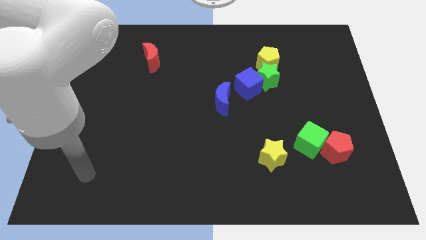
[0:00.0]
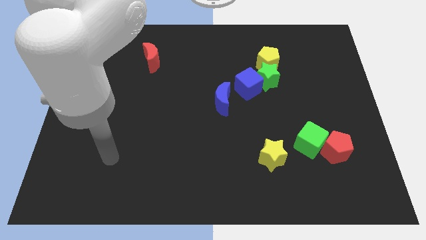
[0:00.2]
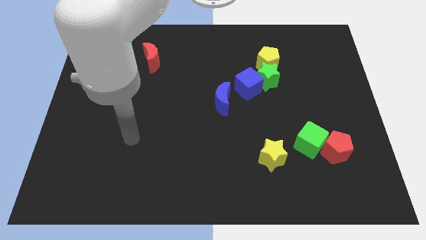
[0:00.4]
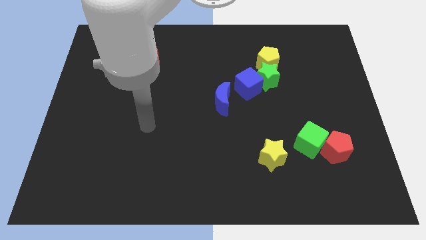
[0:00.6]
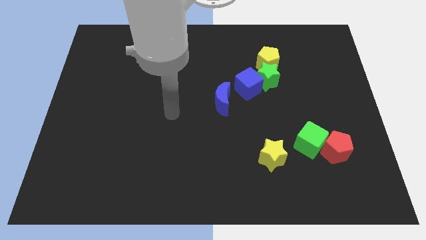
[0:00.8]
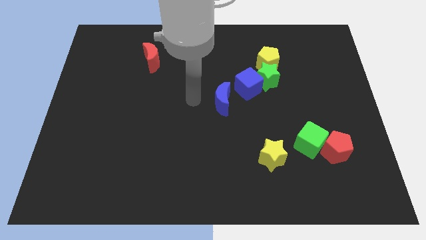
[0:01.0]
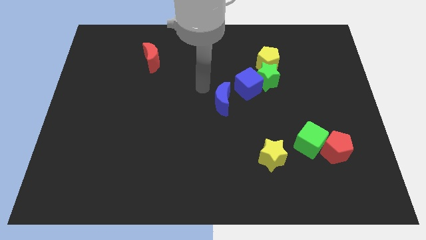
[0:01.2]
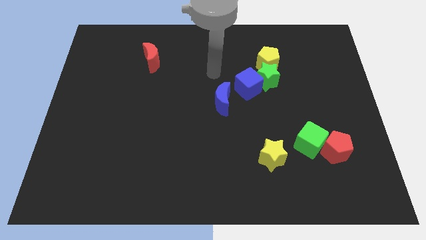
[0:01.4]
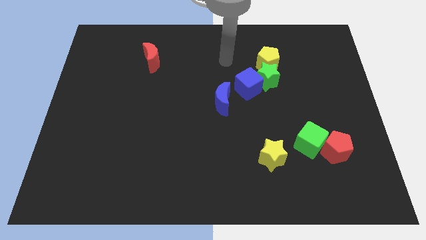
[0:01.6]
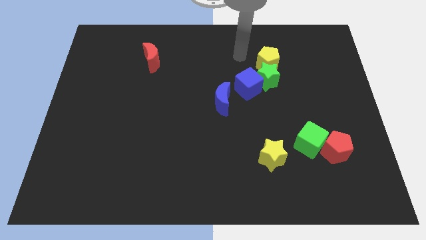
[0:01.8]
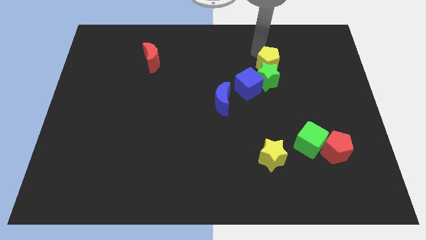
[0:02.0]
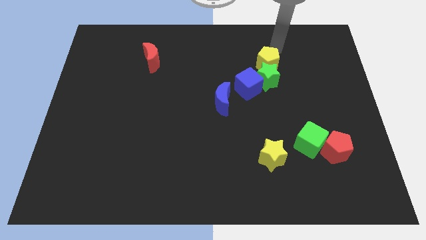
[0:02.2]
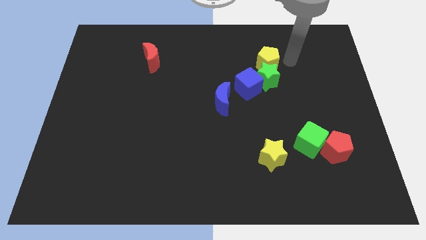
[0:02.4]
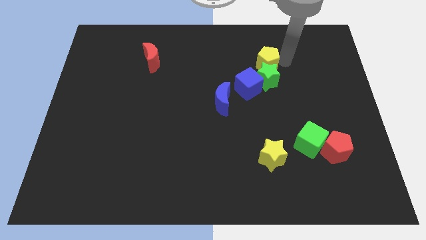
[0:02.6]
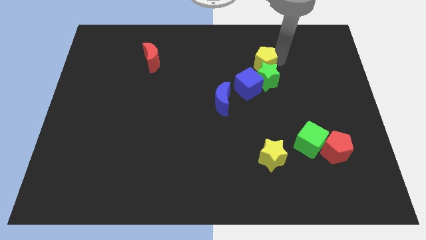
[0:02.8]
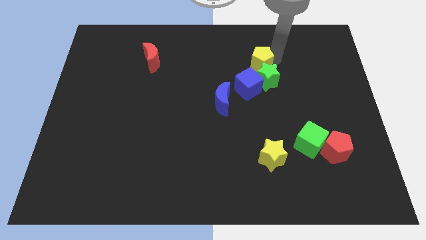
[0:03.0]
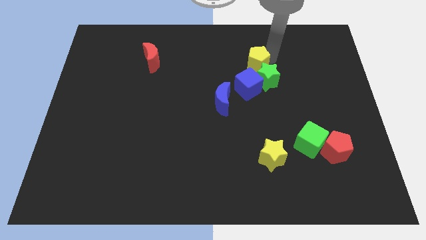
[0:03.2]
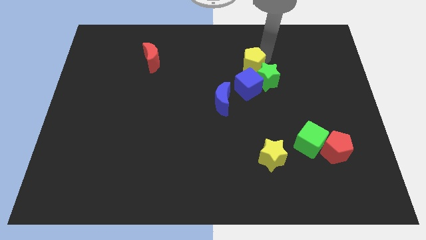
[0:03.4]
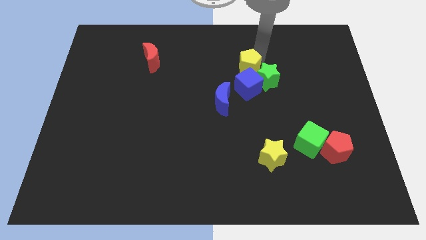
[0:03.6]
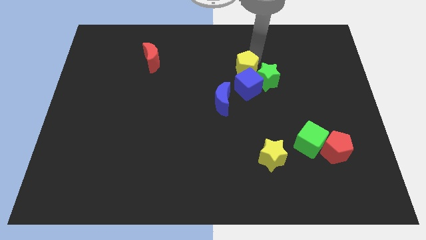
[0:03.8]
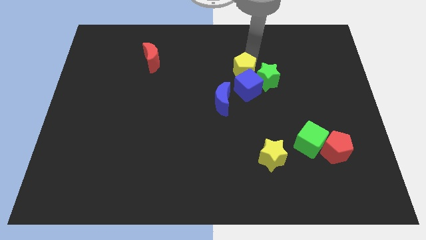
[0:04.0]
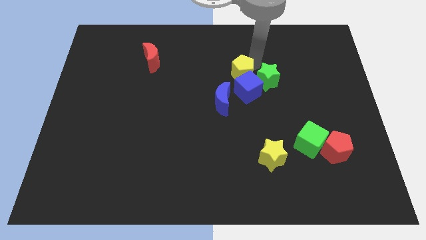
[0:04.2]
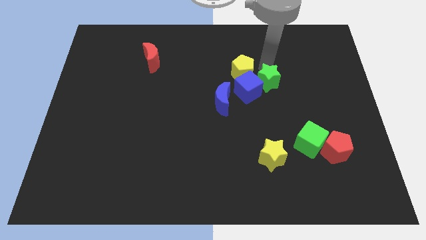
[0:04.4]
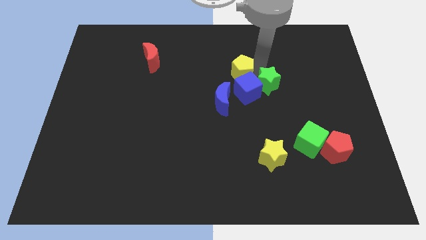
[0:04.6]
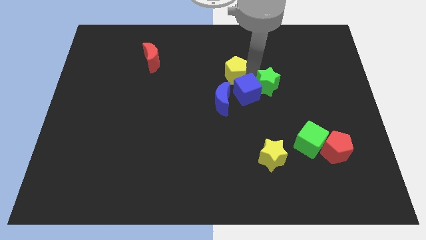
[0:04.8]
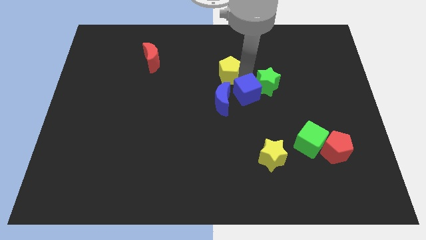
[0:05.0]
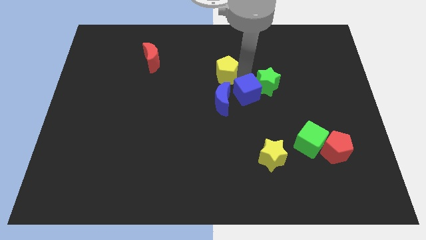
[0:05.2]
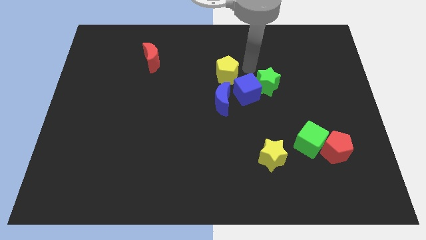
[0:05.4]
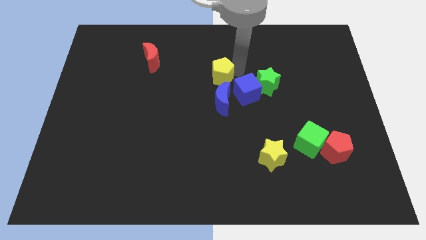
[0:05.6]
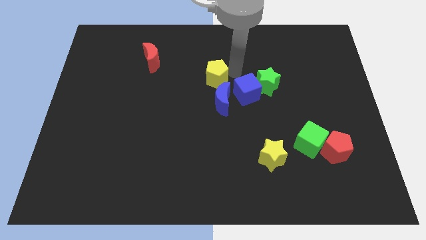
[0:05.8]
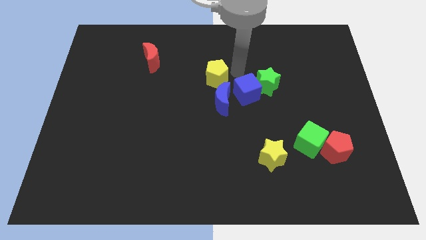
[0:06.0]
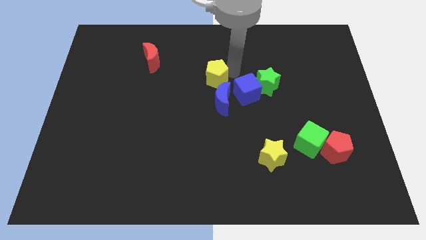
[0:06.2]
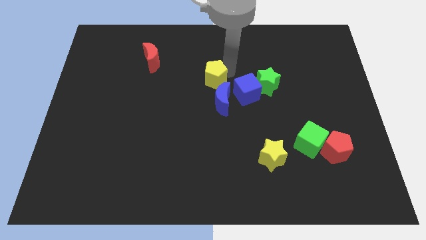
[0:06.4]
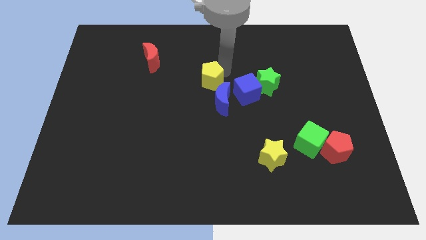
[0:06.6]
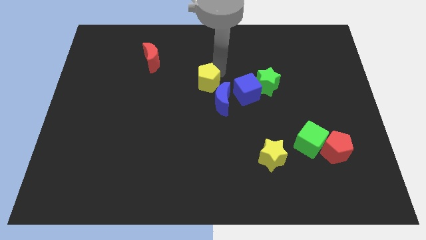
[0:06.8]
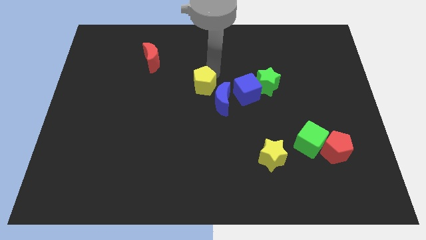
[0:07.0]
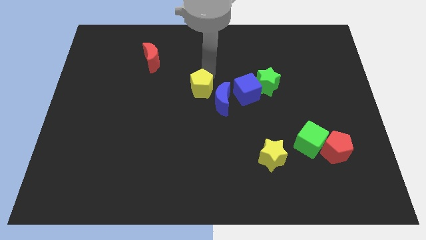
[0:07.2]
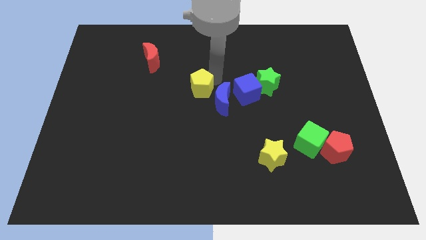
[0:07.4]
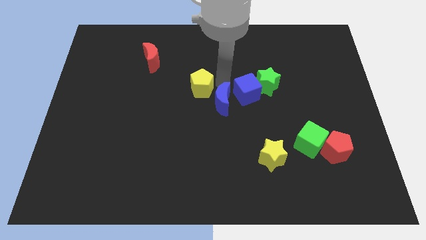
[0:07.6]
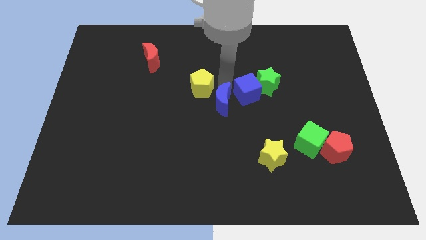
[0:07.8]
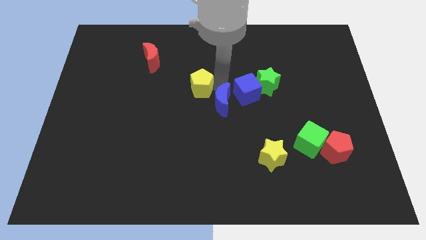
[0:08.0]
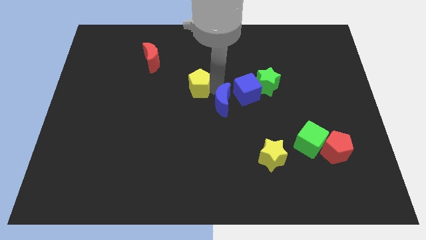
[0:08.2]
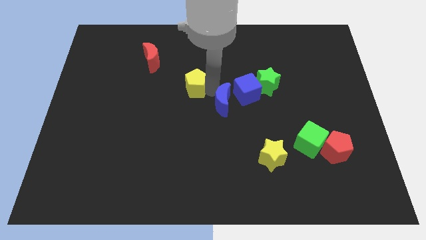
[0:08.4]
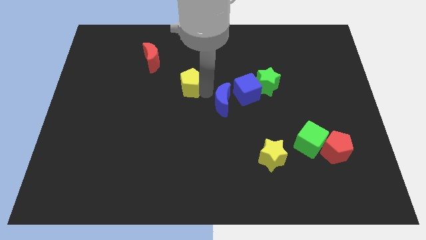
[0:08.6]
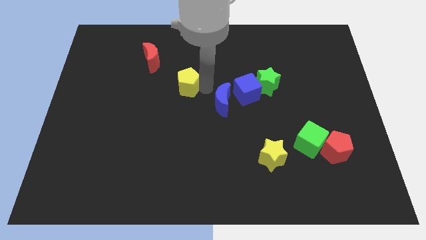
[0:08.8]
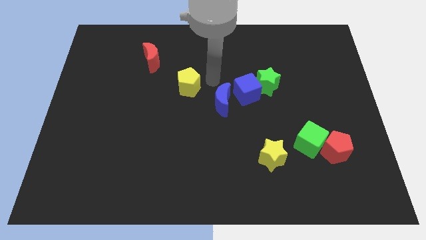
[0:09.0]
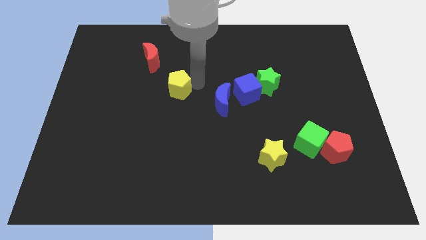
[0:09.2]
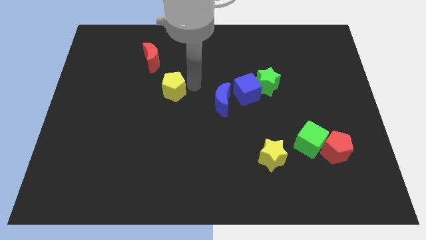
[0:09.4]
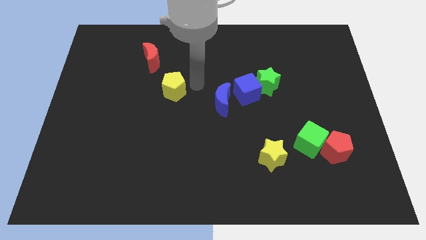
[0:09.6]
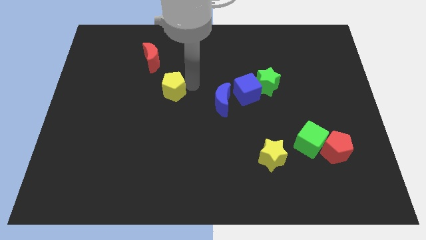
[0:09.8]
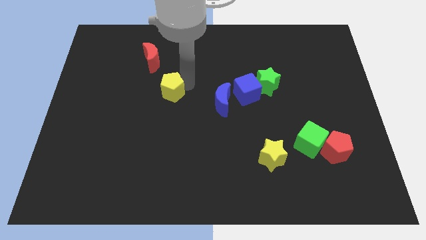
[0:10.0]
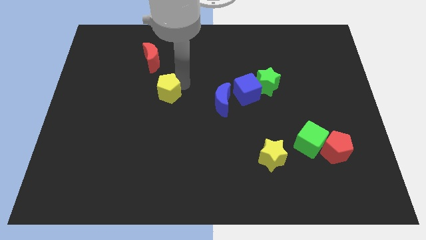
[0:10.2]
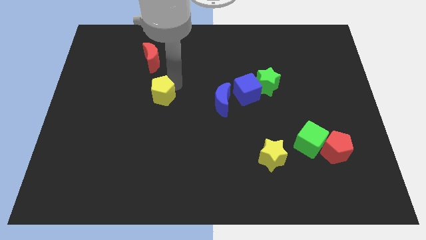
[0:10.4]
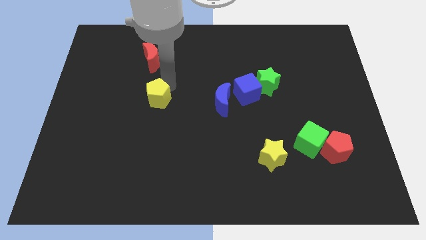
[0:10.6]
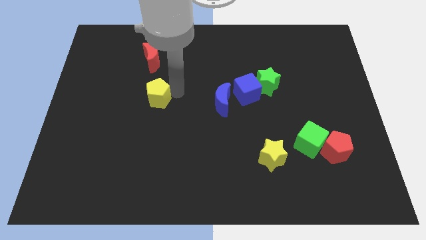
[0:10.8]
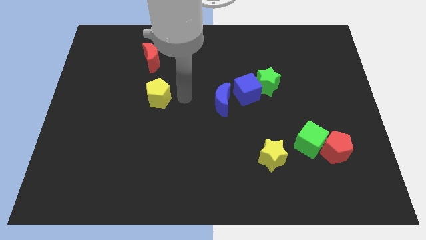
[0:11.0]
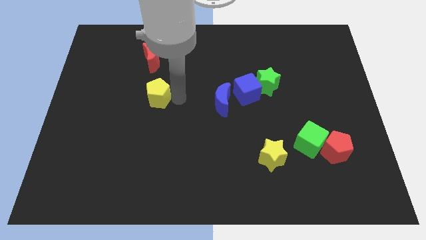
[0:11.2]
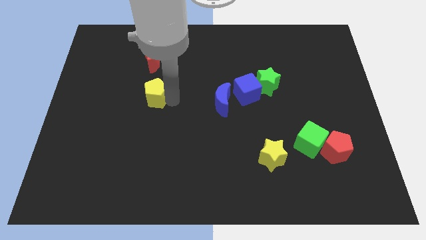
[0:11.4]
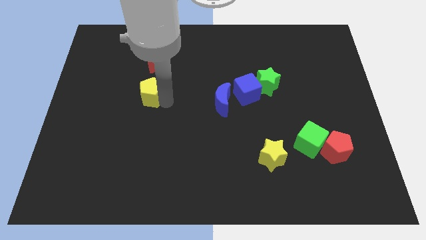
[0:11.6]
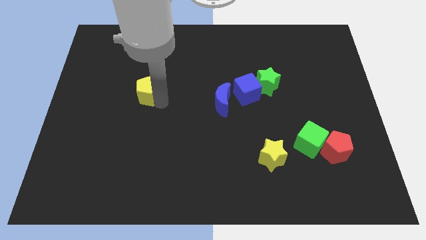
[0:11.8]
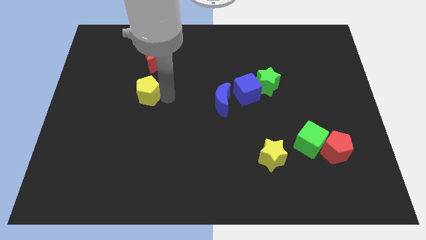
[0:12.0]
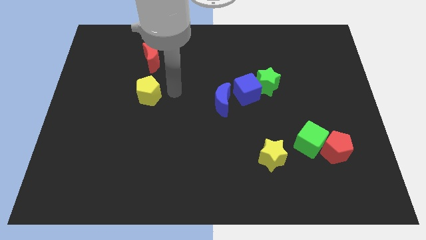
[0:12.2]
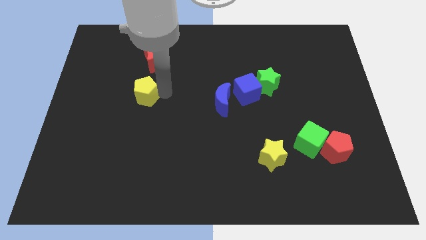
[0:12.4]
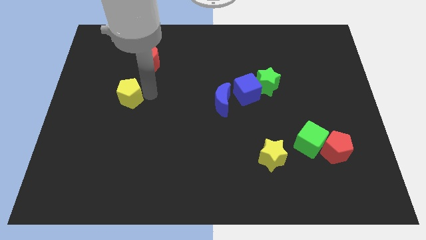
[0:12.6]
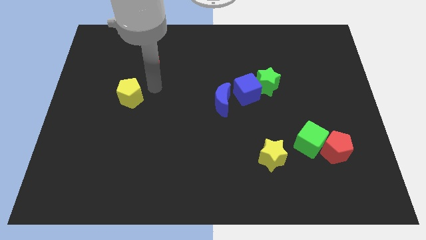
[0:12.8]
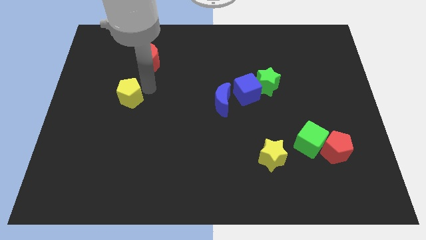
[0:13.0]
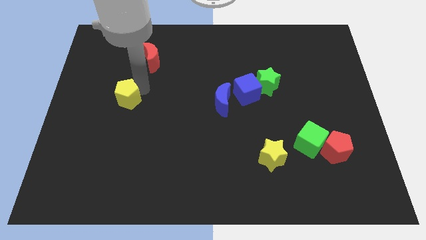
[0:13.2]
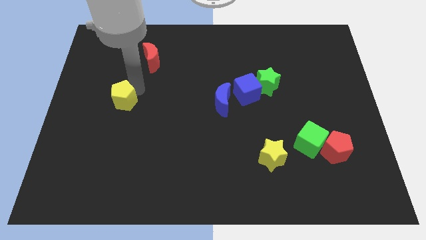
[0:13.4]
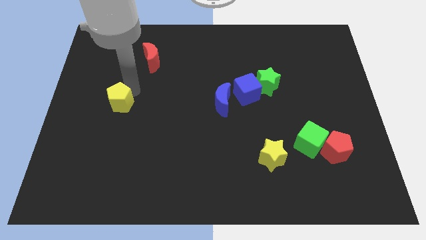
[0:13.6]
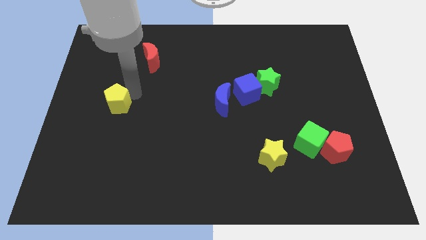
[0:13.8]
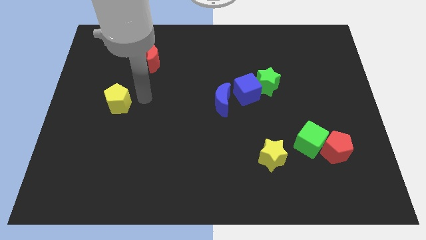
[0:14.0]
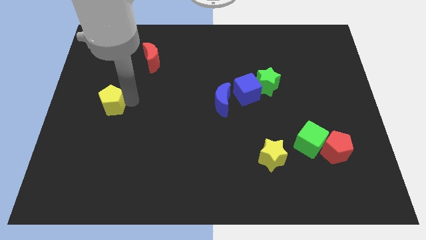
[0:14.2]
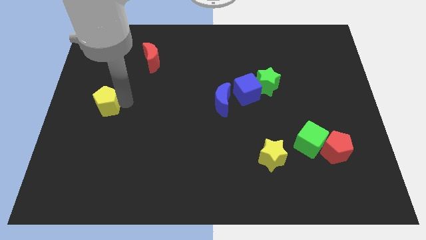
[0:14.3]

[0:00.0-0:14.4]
put the yellow pentagon to the left side

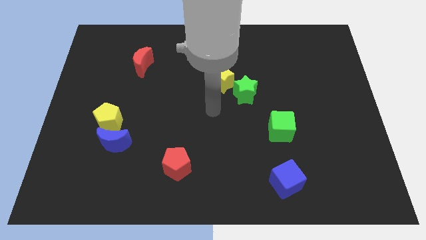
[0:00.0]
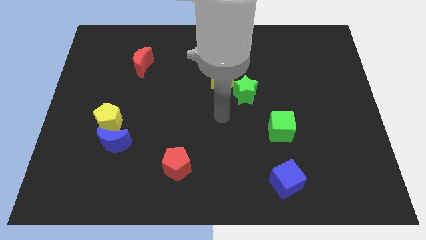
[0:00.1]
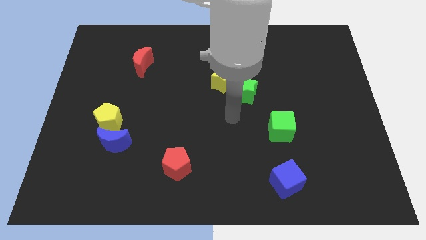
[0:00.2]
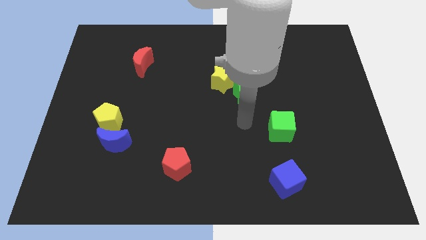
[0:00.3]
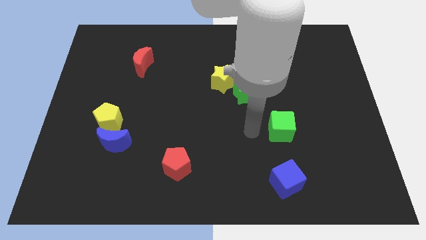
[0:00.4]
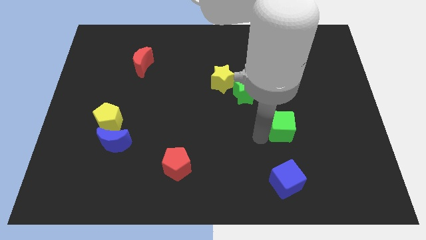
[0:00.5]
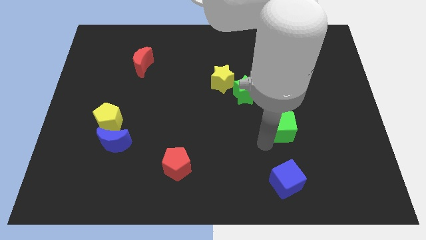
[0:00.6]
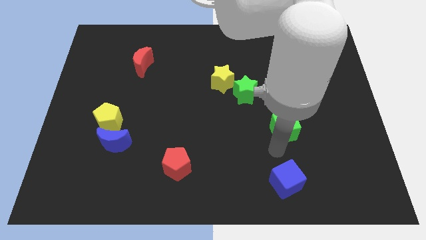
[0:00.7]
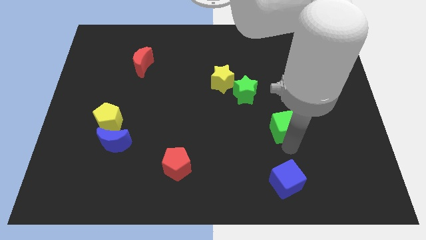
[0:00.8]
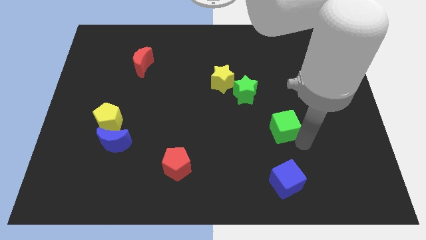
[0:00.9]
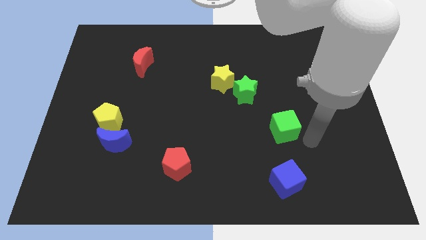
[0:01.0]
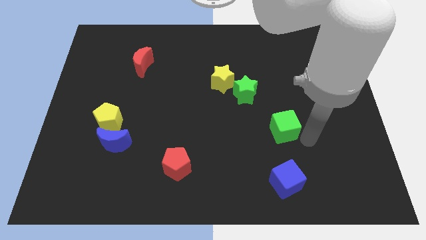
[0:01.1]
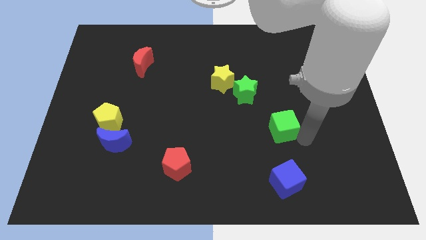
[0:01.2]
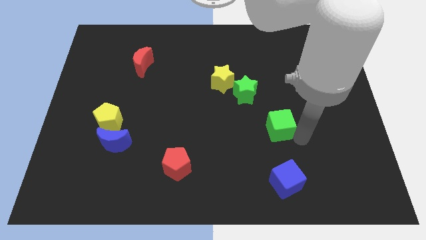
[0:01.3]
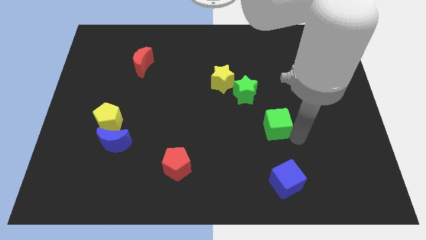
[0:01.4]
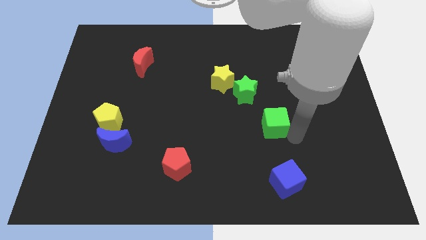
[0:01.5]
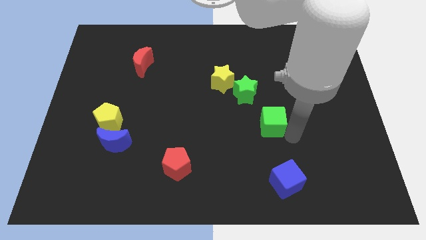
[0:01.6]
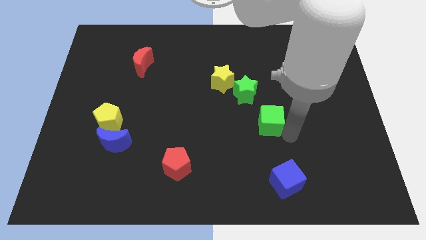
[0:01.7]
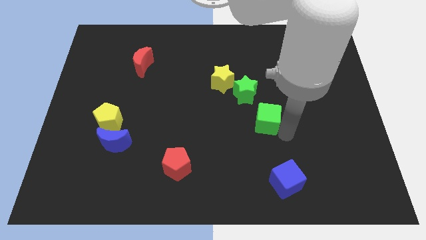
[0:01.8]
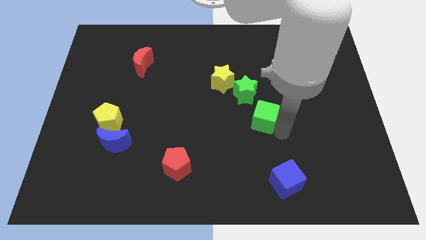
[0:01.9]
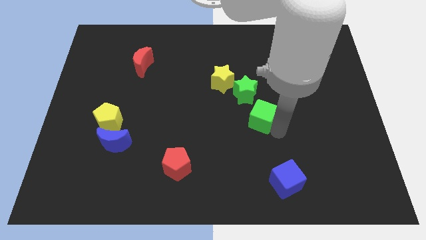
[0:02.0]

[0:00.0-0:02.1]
slide the green cube to the middle of the board
